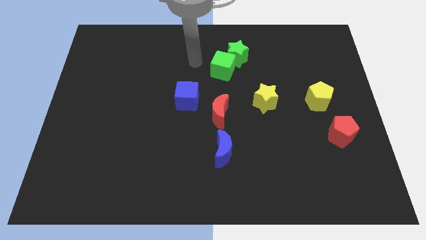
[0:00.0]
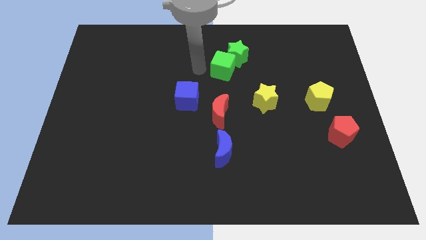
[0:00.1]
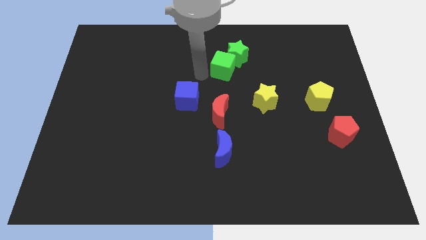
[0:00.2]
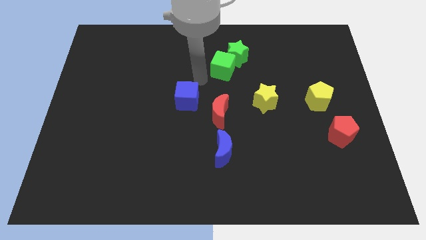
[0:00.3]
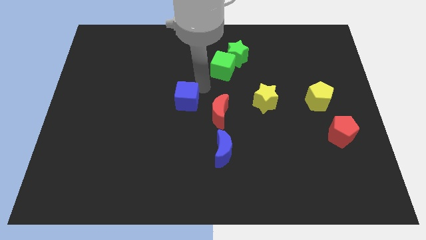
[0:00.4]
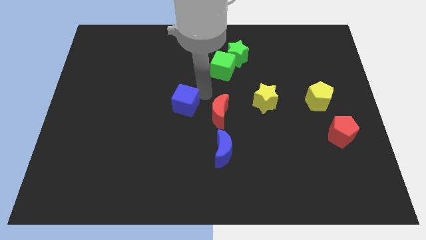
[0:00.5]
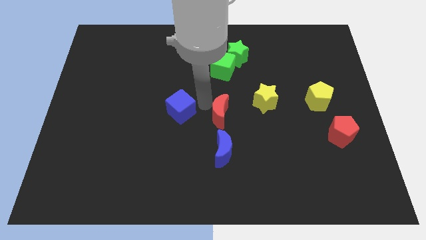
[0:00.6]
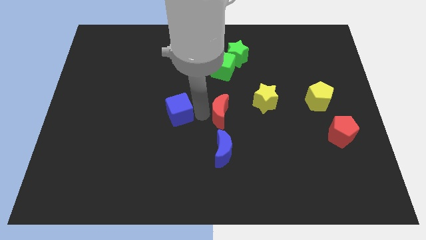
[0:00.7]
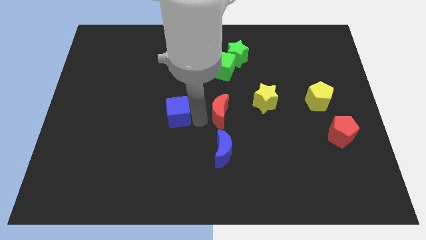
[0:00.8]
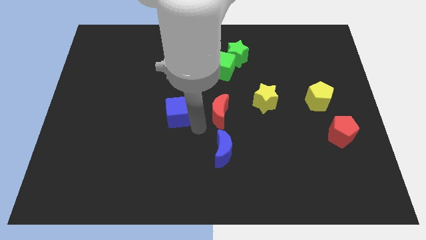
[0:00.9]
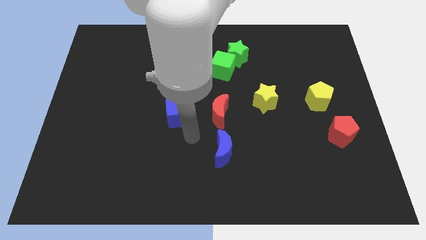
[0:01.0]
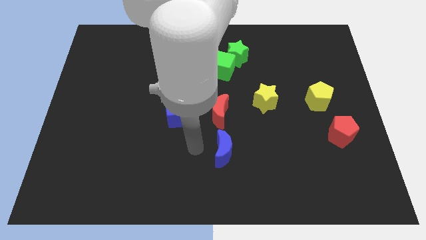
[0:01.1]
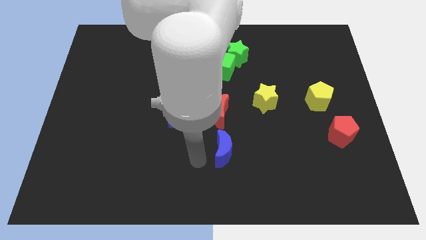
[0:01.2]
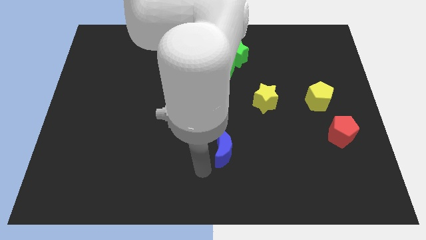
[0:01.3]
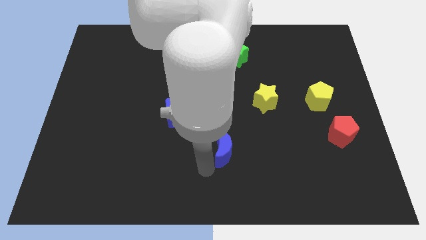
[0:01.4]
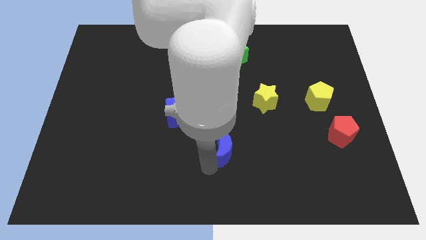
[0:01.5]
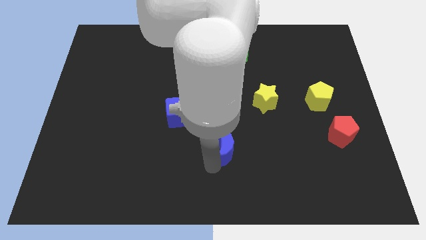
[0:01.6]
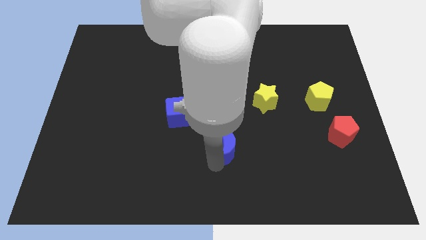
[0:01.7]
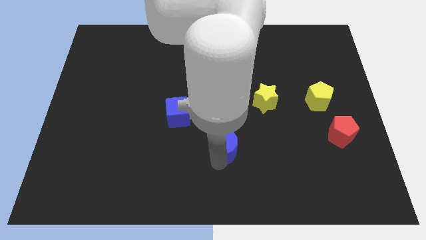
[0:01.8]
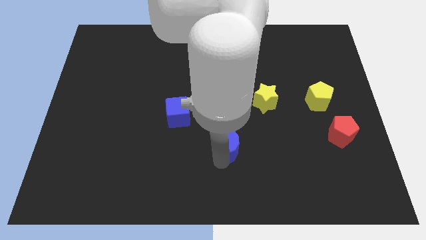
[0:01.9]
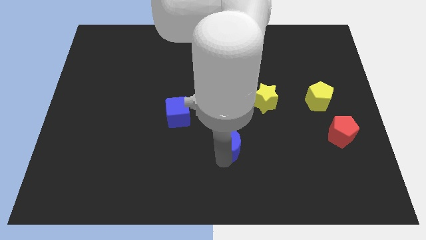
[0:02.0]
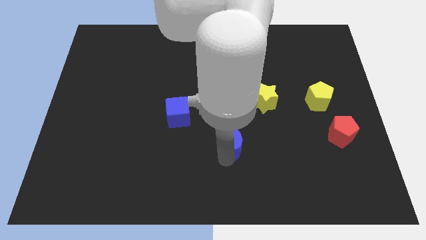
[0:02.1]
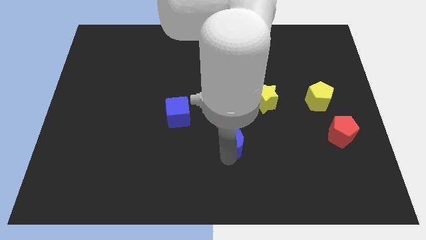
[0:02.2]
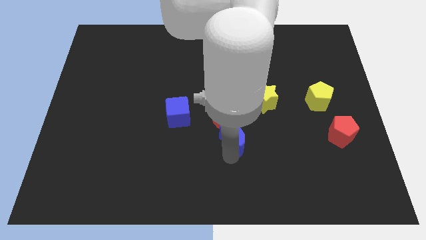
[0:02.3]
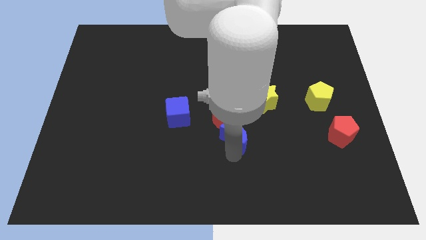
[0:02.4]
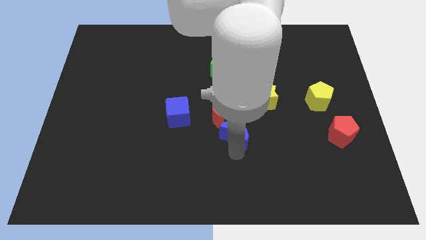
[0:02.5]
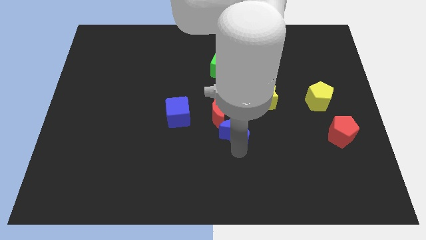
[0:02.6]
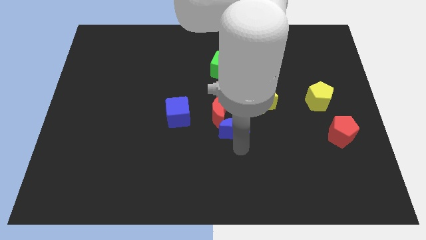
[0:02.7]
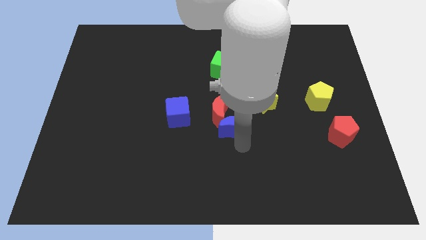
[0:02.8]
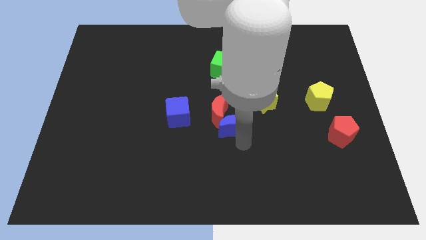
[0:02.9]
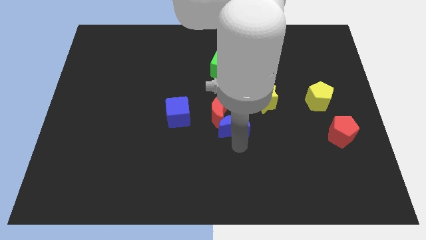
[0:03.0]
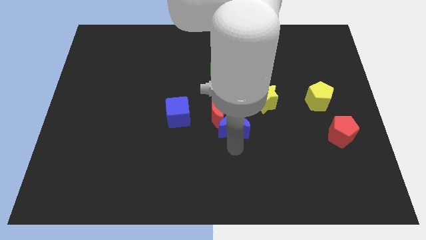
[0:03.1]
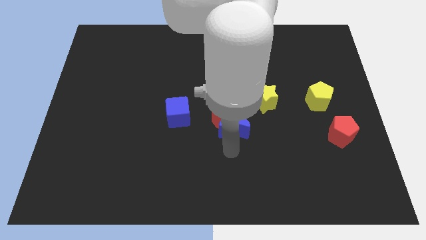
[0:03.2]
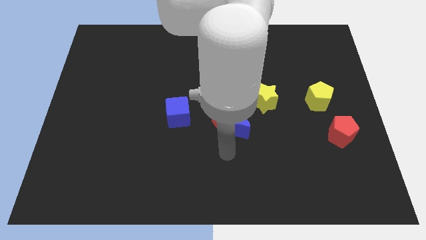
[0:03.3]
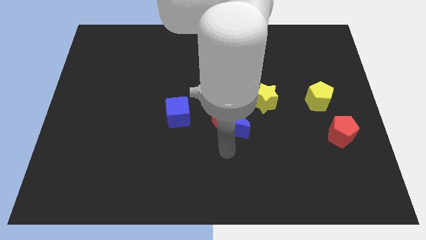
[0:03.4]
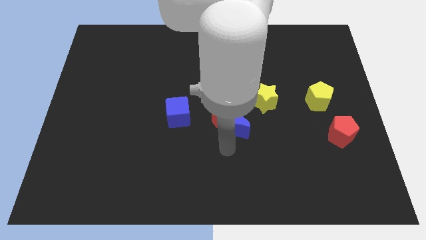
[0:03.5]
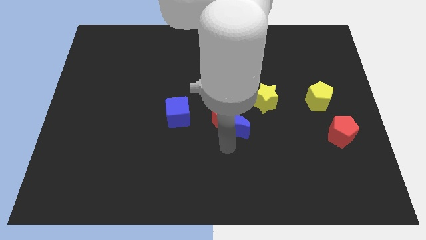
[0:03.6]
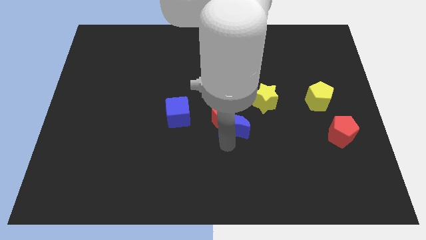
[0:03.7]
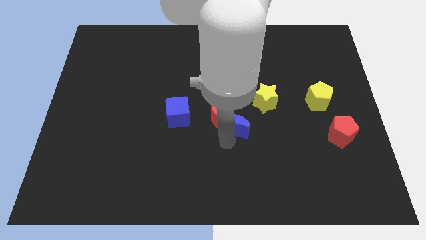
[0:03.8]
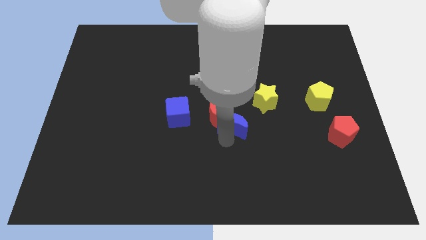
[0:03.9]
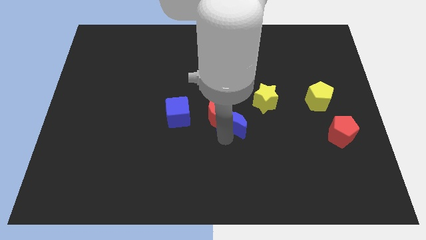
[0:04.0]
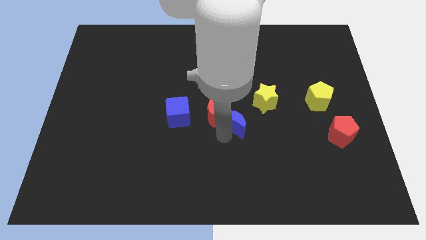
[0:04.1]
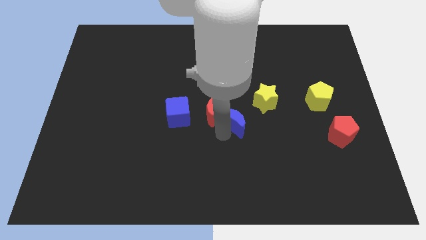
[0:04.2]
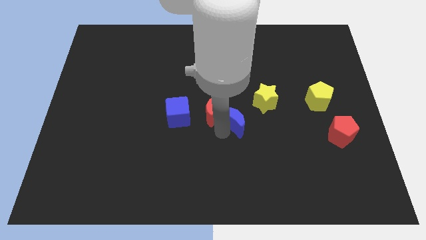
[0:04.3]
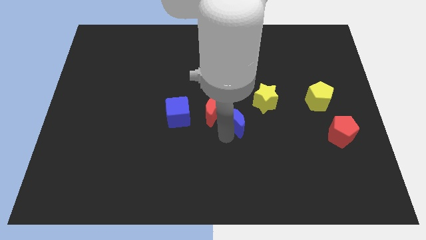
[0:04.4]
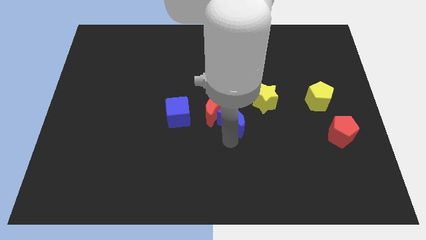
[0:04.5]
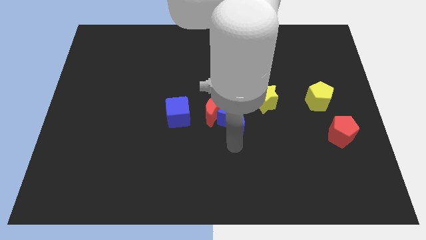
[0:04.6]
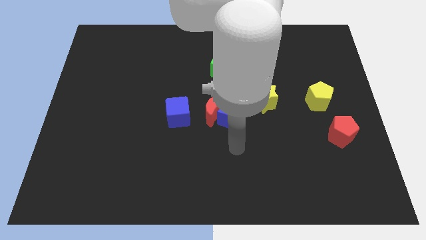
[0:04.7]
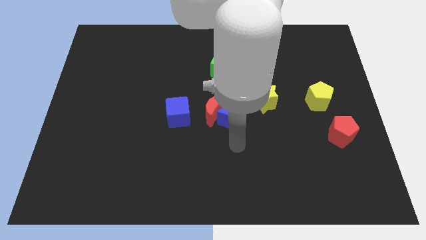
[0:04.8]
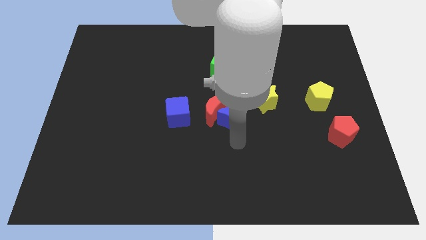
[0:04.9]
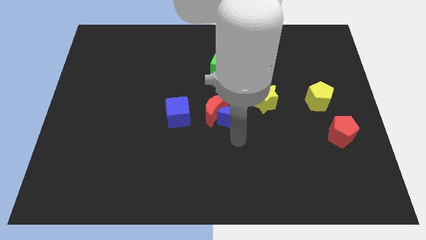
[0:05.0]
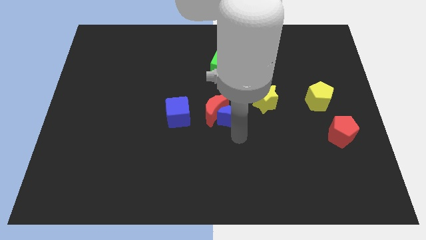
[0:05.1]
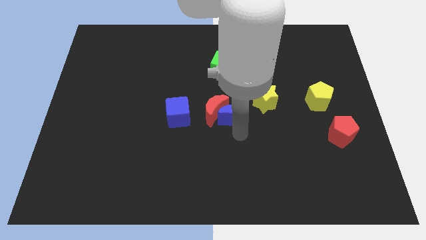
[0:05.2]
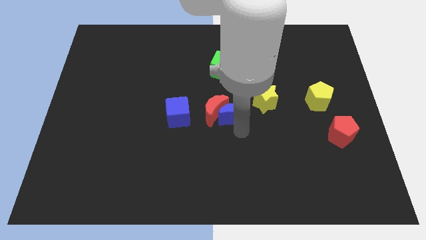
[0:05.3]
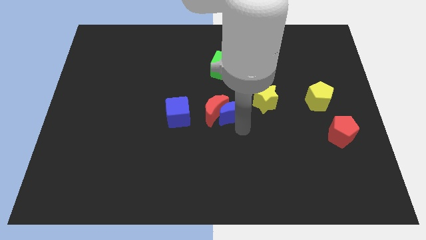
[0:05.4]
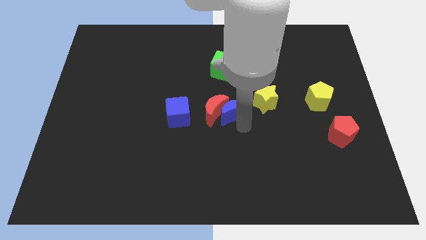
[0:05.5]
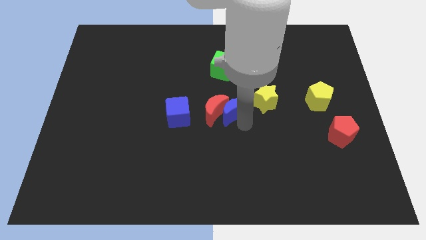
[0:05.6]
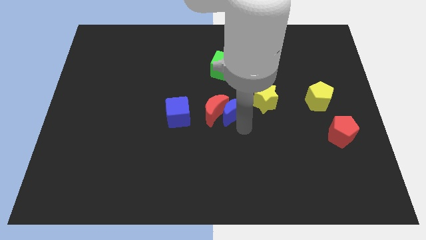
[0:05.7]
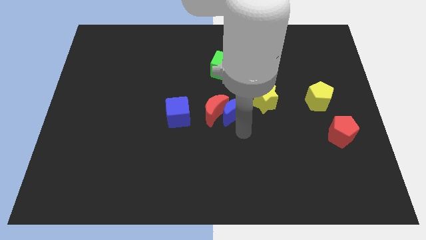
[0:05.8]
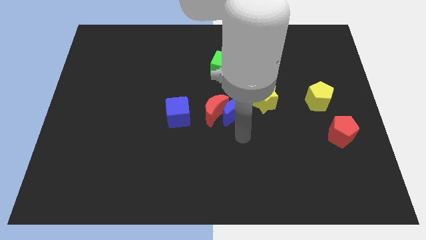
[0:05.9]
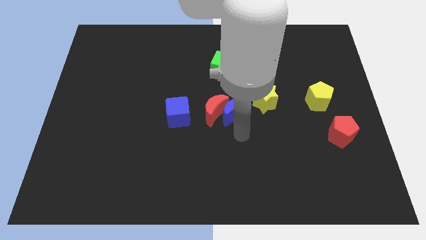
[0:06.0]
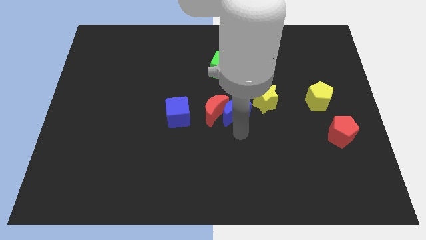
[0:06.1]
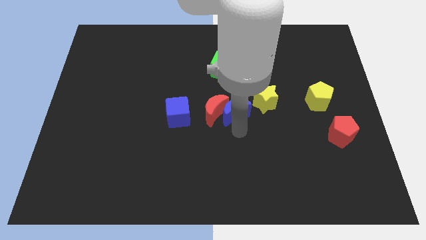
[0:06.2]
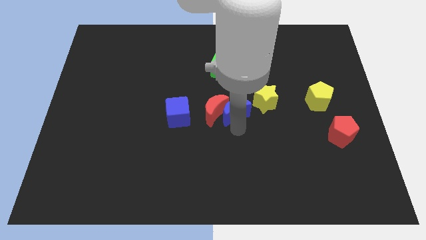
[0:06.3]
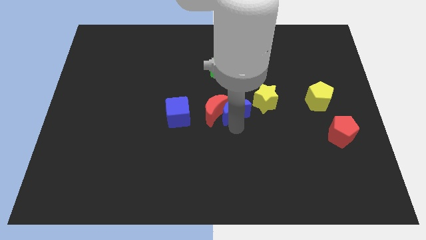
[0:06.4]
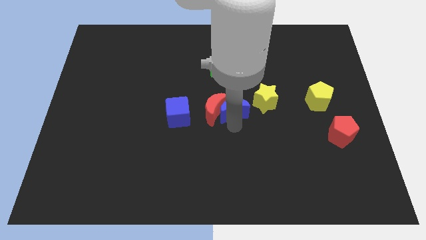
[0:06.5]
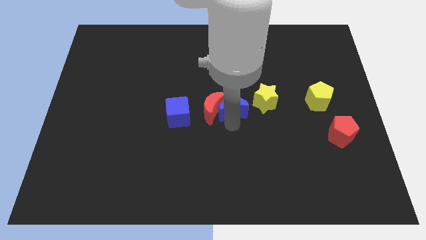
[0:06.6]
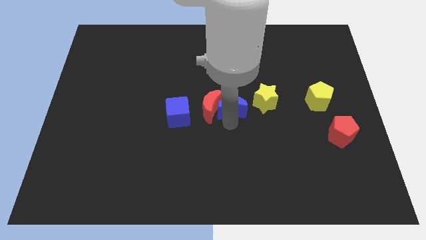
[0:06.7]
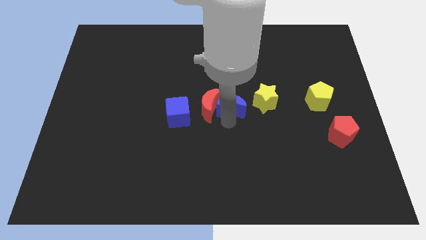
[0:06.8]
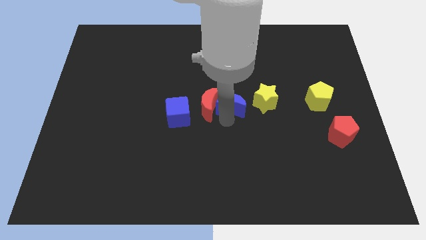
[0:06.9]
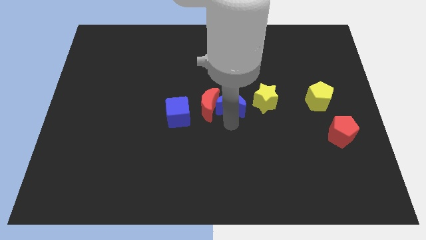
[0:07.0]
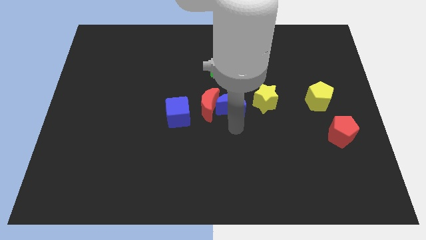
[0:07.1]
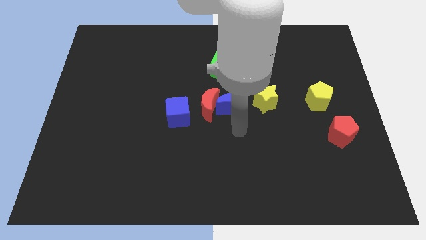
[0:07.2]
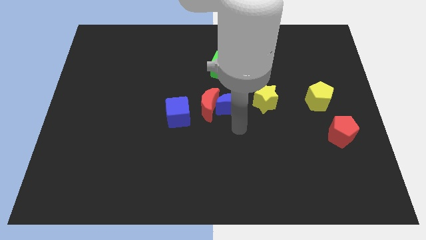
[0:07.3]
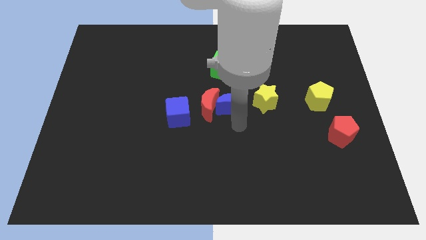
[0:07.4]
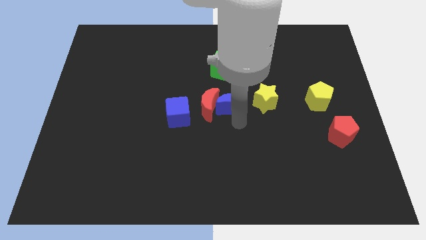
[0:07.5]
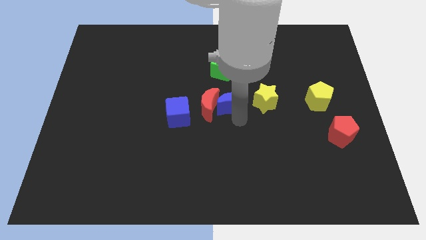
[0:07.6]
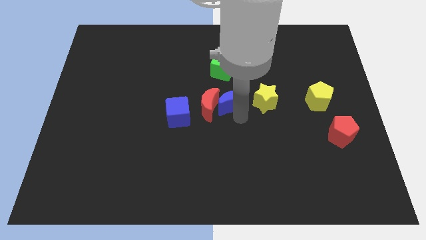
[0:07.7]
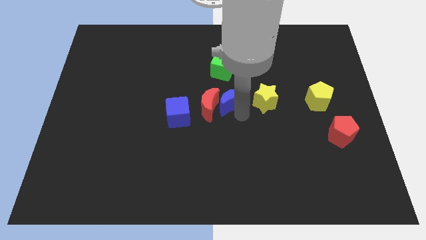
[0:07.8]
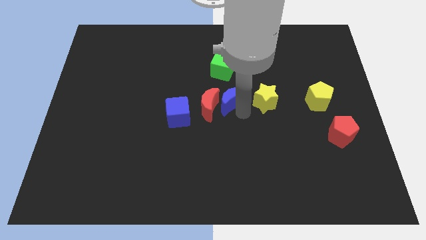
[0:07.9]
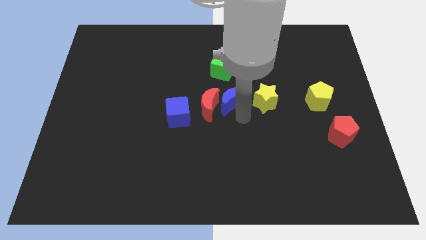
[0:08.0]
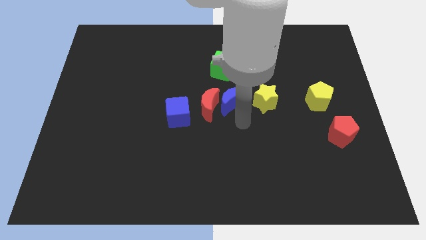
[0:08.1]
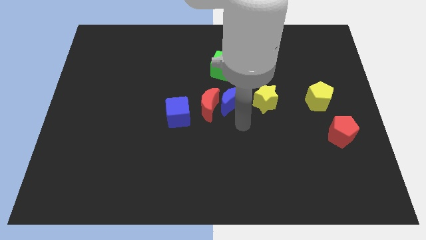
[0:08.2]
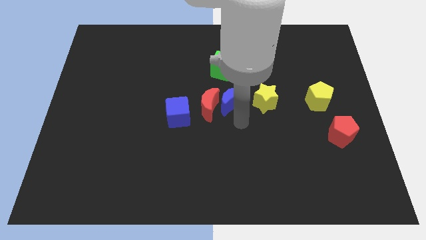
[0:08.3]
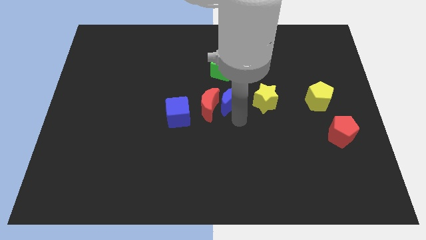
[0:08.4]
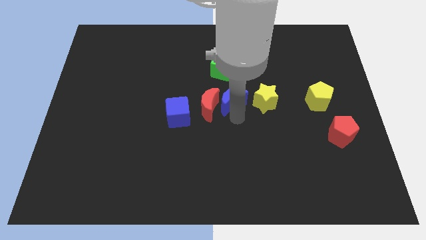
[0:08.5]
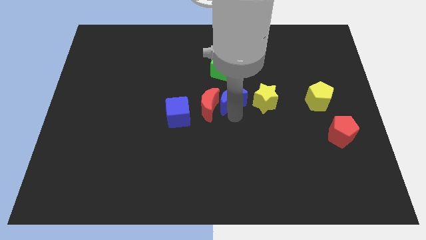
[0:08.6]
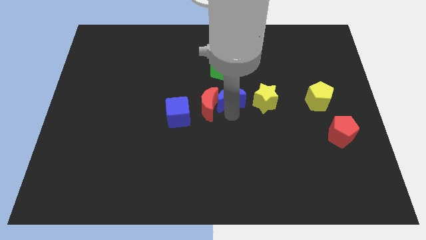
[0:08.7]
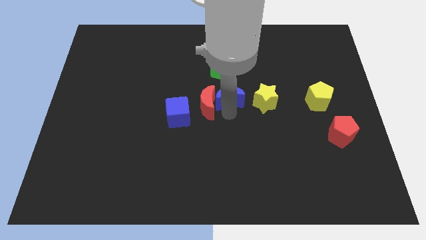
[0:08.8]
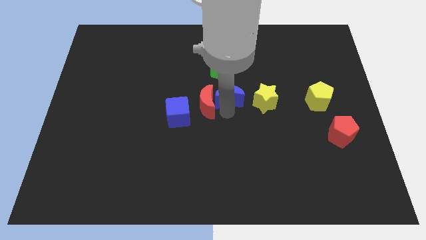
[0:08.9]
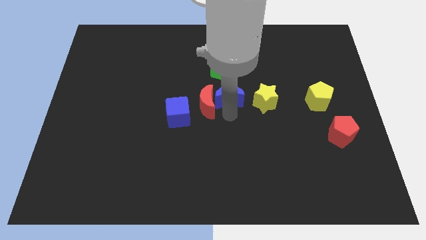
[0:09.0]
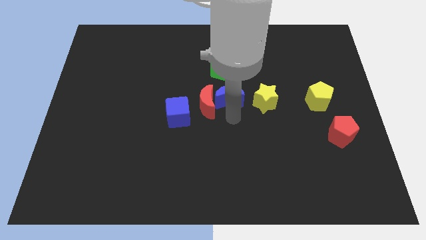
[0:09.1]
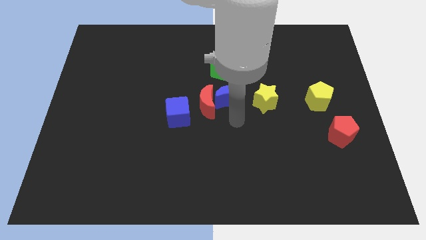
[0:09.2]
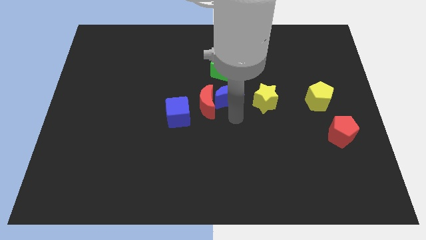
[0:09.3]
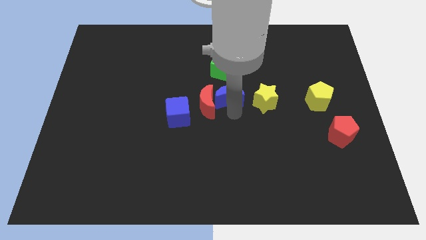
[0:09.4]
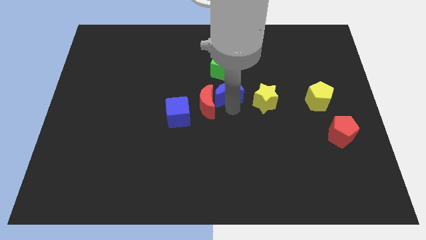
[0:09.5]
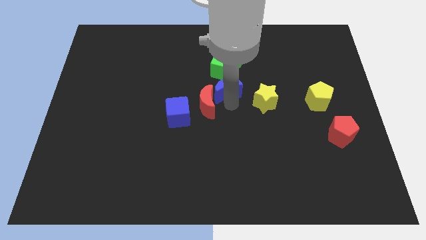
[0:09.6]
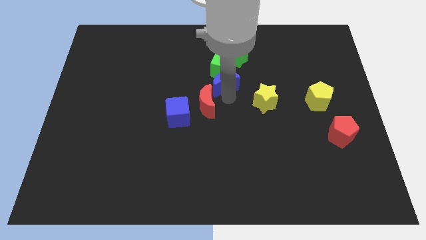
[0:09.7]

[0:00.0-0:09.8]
slide the blue moon next to the green cube
